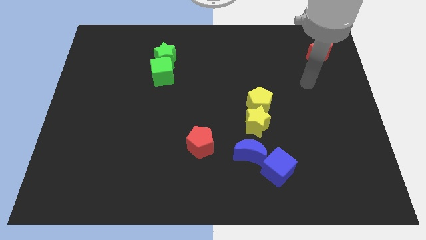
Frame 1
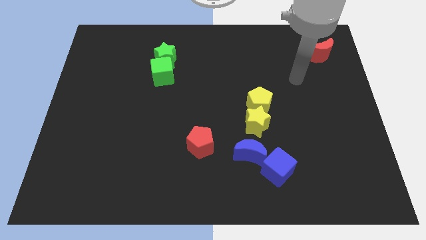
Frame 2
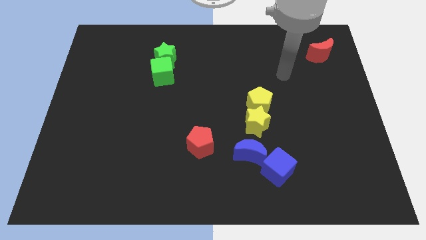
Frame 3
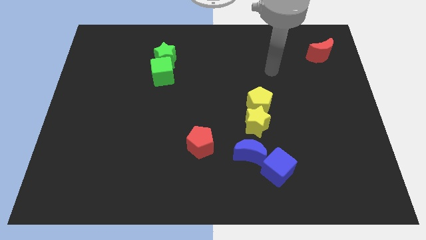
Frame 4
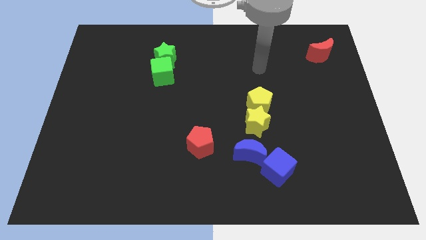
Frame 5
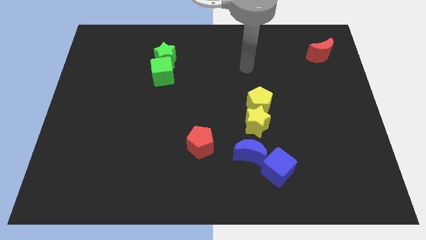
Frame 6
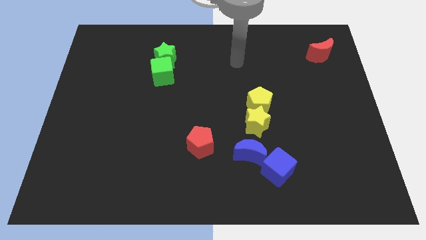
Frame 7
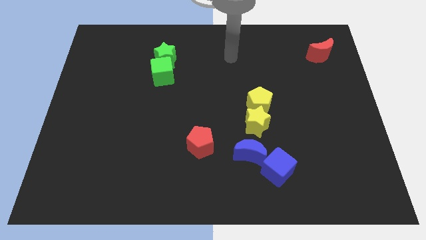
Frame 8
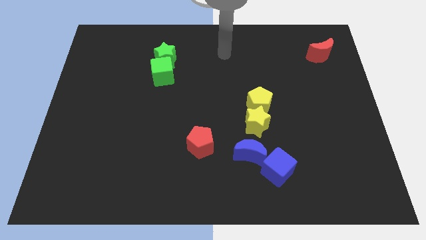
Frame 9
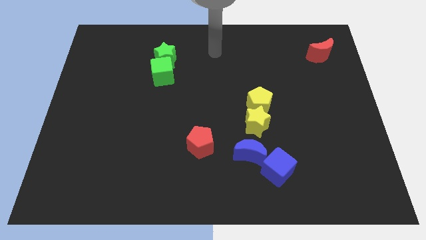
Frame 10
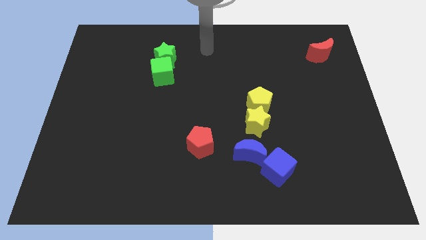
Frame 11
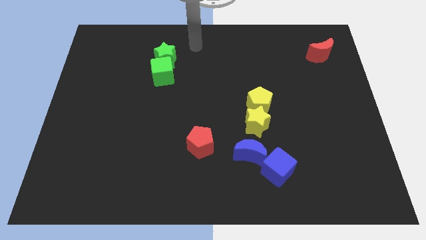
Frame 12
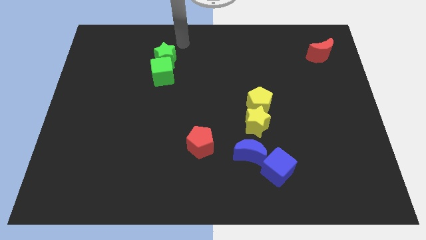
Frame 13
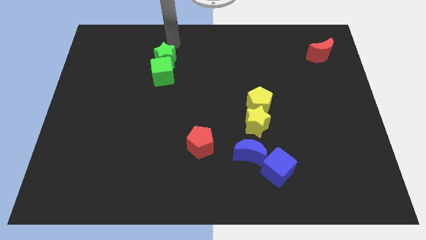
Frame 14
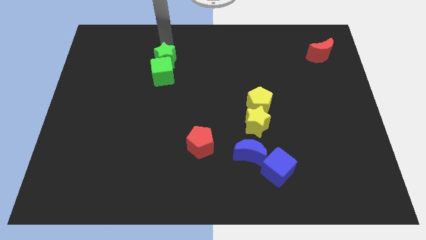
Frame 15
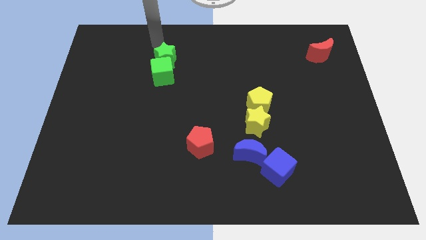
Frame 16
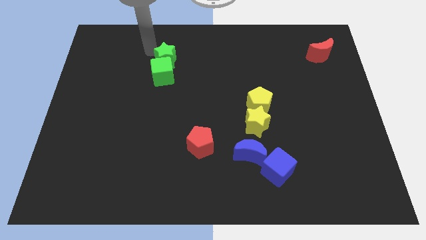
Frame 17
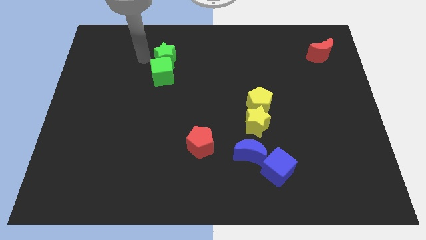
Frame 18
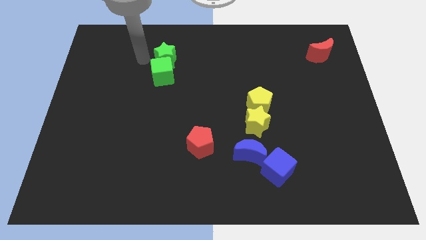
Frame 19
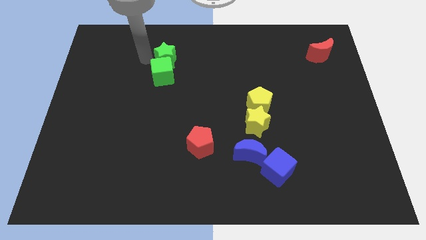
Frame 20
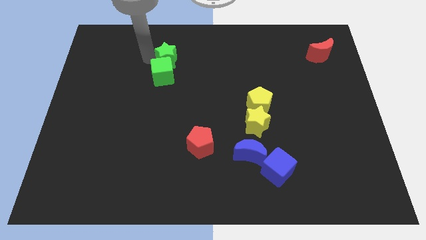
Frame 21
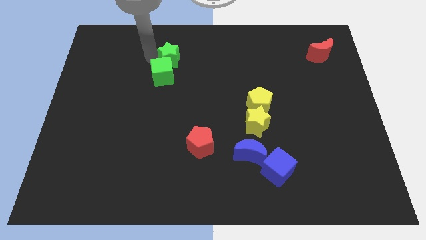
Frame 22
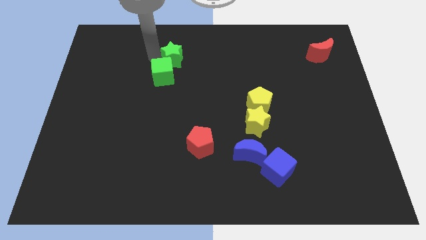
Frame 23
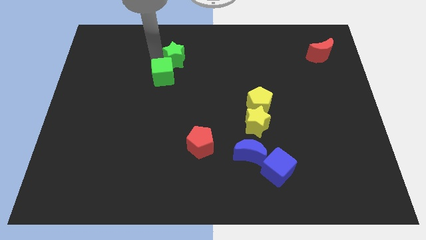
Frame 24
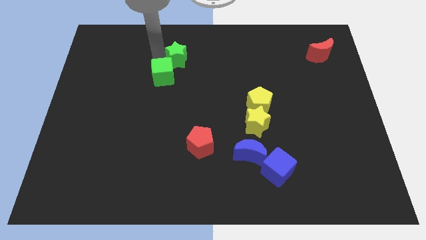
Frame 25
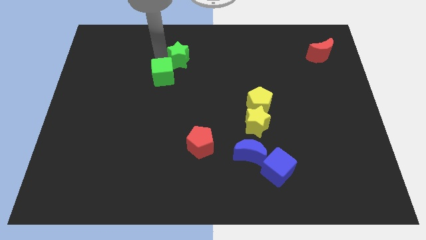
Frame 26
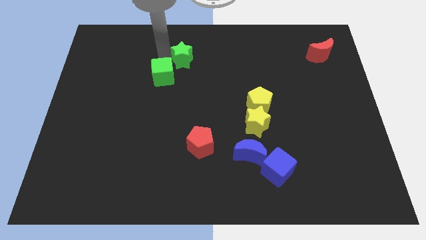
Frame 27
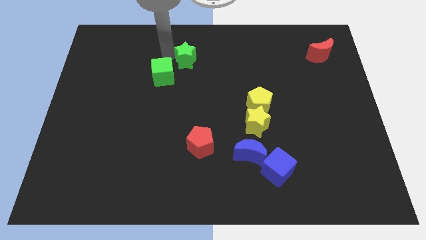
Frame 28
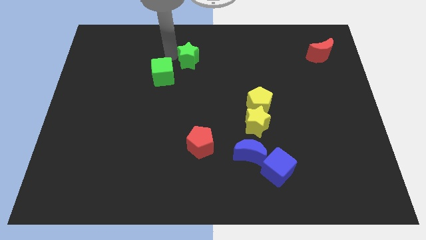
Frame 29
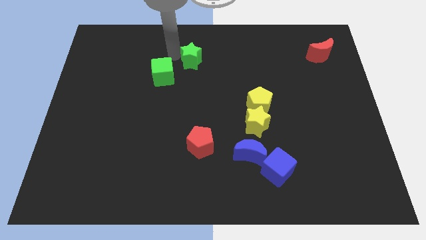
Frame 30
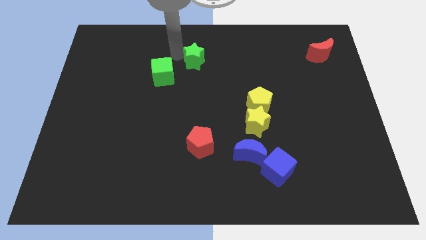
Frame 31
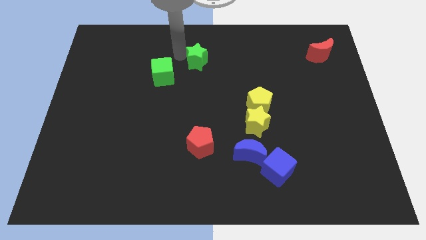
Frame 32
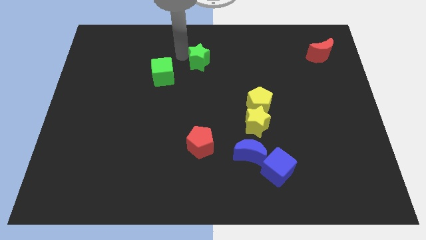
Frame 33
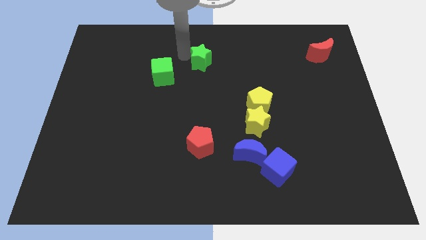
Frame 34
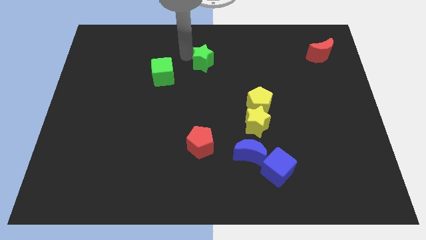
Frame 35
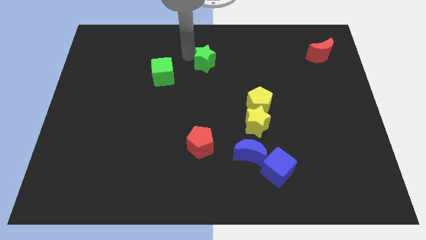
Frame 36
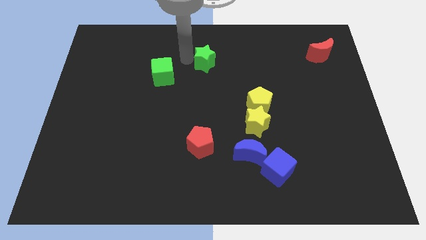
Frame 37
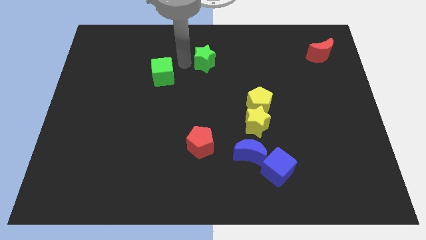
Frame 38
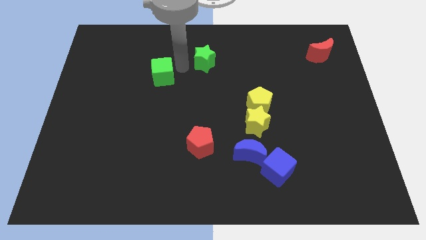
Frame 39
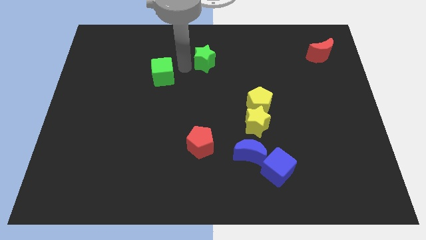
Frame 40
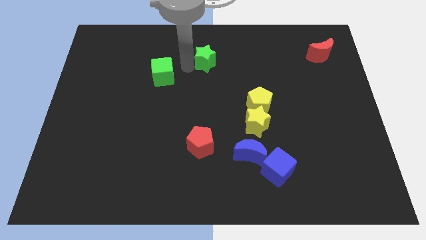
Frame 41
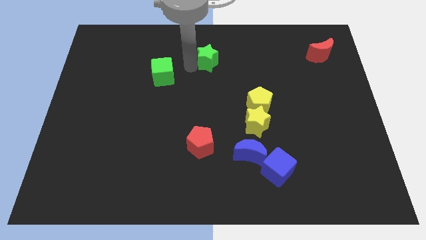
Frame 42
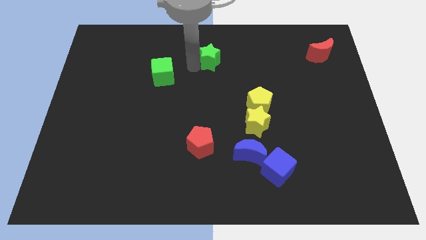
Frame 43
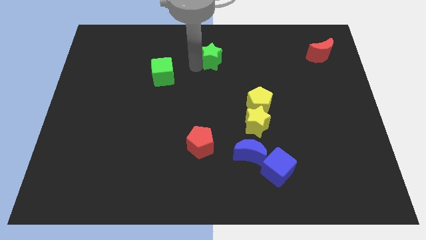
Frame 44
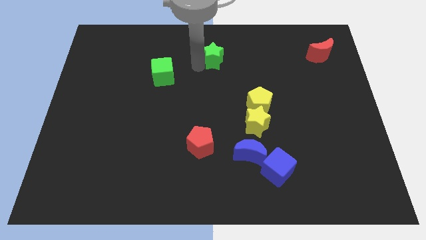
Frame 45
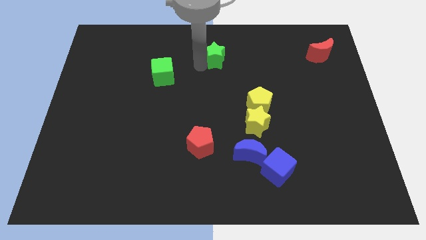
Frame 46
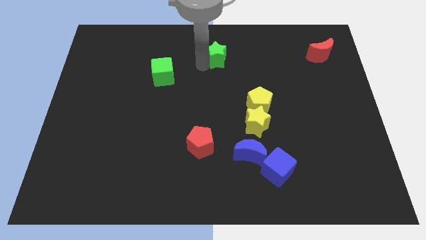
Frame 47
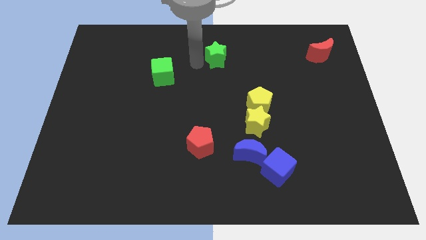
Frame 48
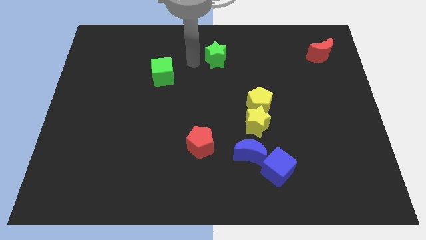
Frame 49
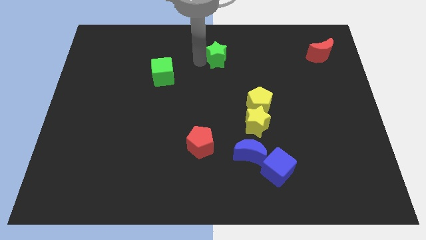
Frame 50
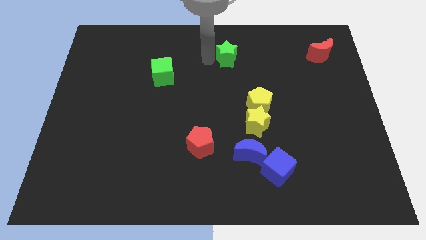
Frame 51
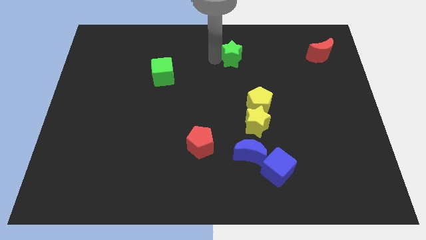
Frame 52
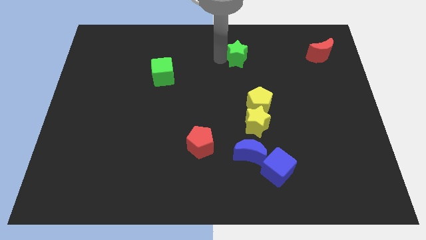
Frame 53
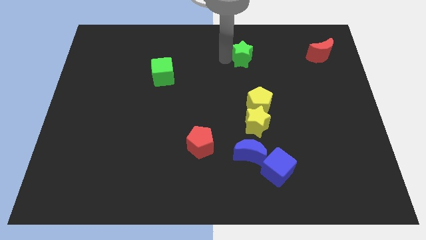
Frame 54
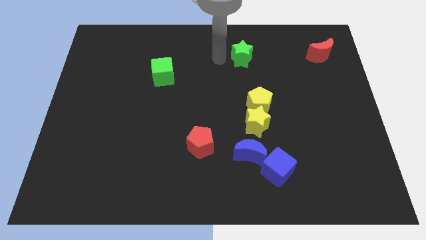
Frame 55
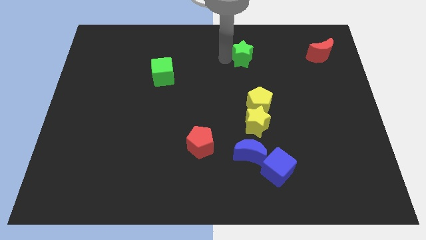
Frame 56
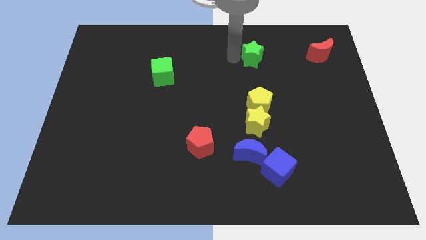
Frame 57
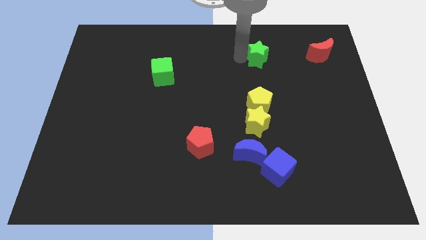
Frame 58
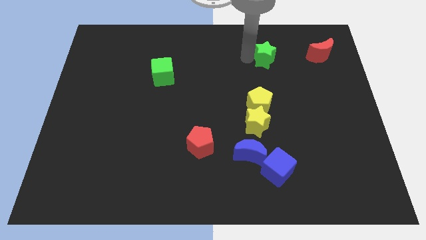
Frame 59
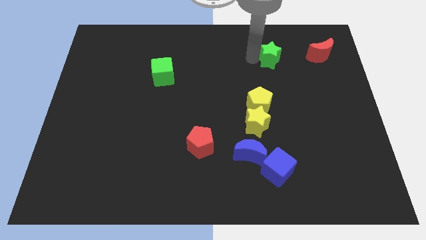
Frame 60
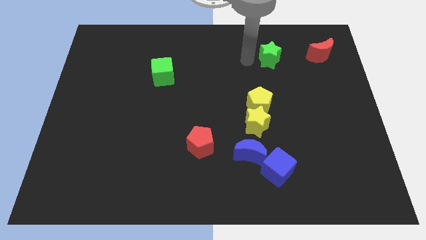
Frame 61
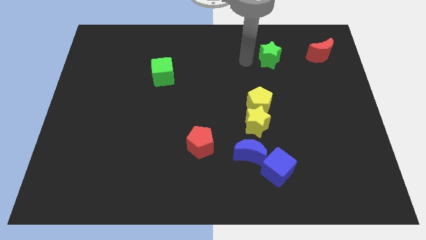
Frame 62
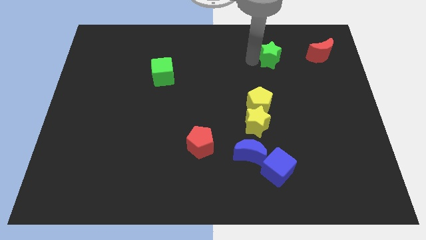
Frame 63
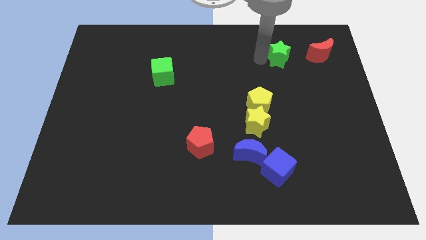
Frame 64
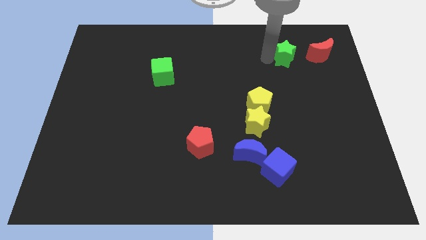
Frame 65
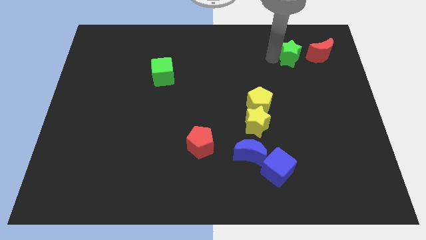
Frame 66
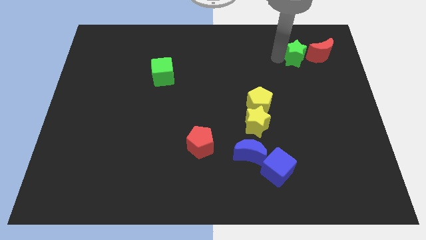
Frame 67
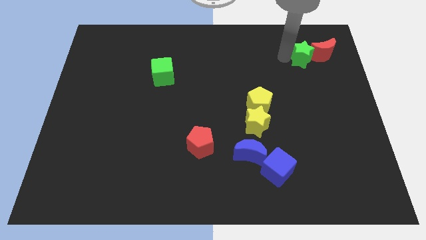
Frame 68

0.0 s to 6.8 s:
slide the green star towards the red moon

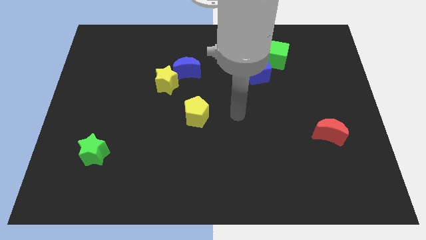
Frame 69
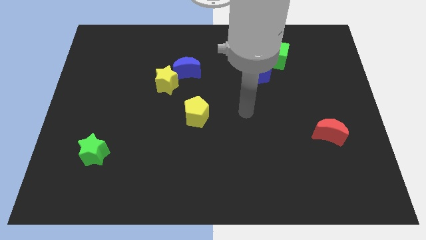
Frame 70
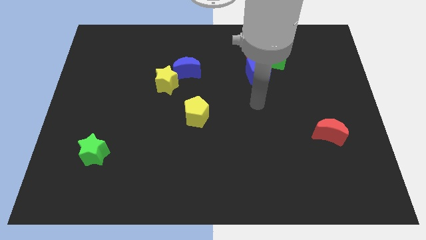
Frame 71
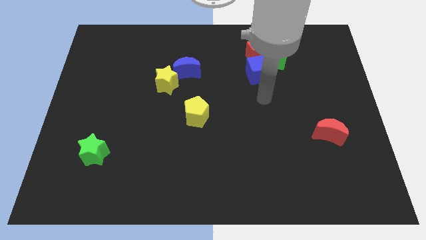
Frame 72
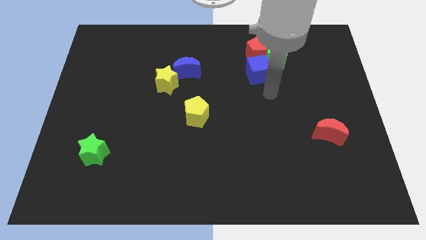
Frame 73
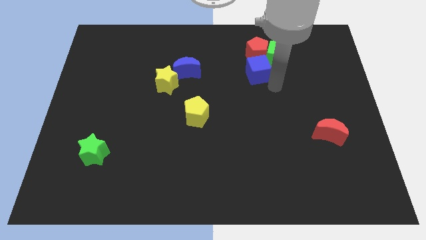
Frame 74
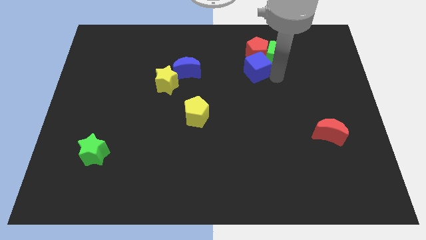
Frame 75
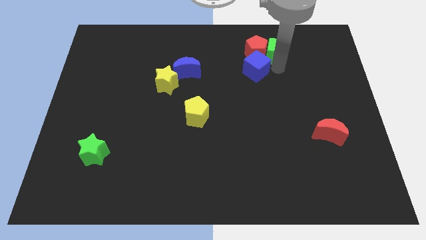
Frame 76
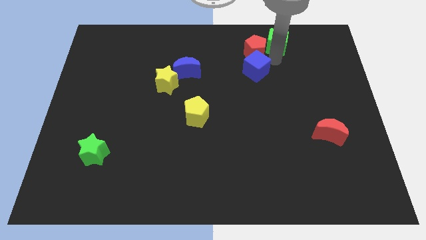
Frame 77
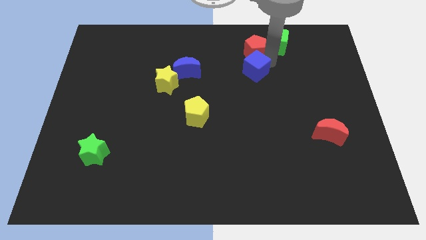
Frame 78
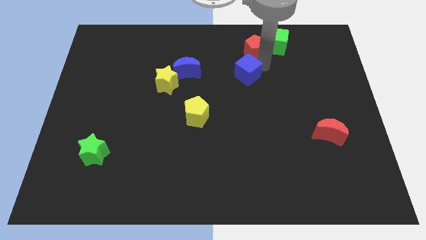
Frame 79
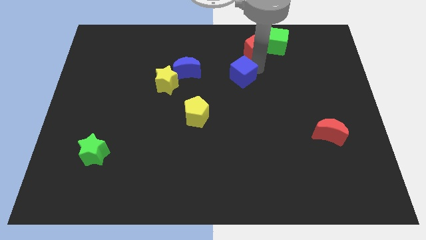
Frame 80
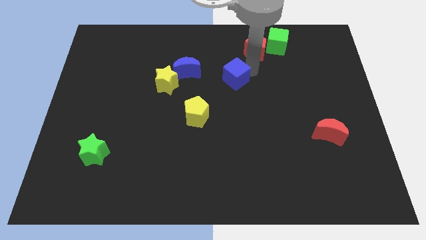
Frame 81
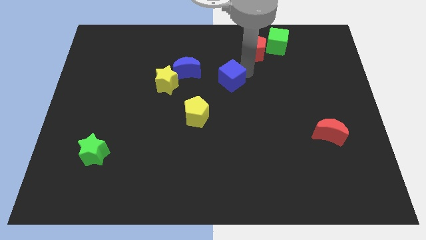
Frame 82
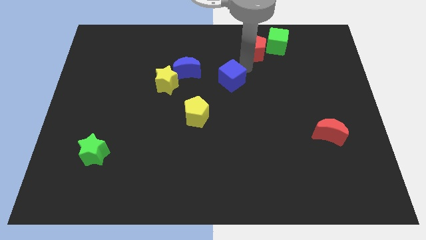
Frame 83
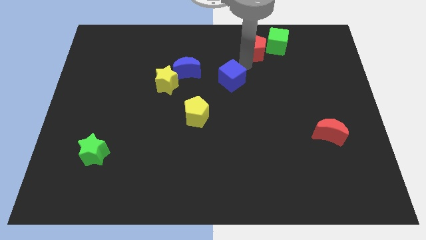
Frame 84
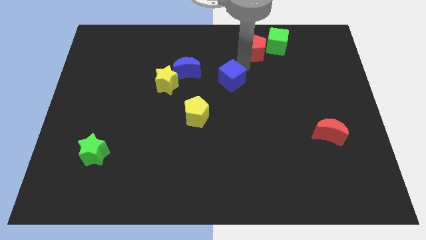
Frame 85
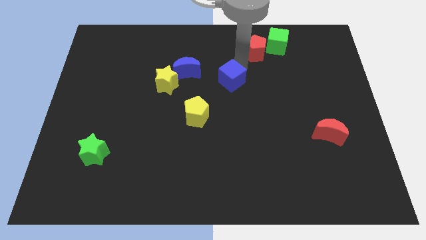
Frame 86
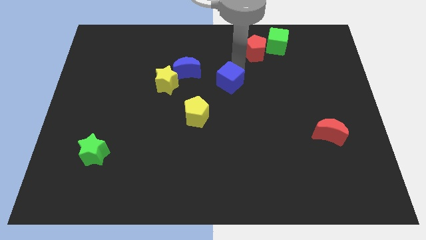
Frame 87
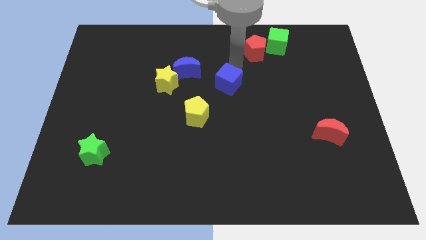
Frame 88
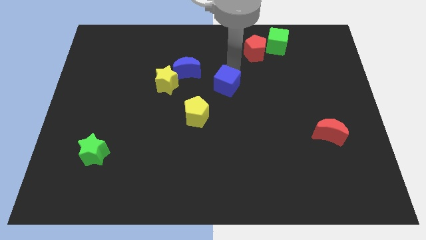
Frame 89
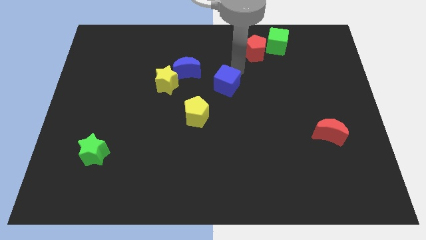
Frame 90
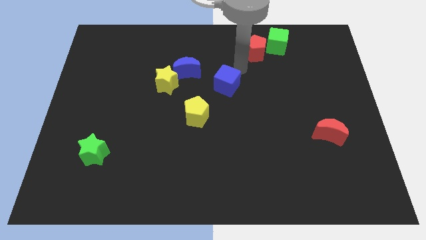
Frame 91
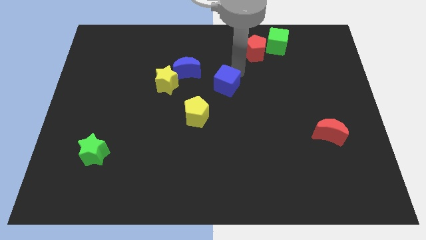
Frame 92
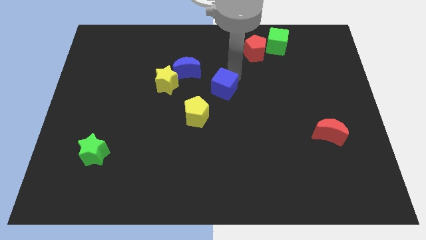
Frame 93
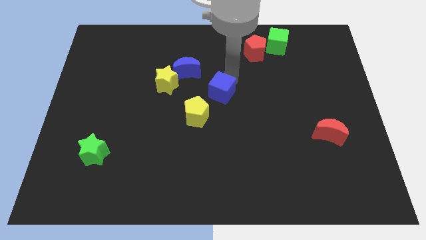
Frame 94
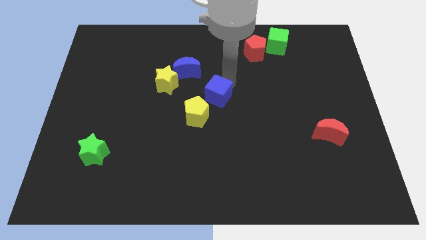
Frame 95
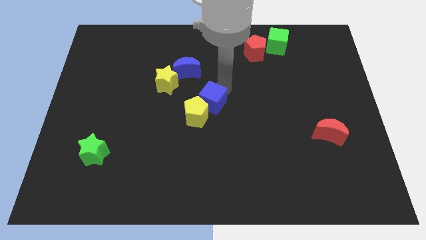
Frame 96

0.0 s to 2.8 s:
move the blue cube towards the yellow pentagon
